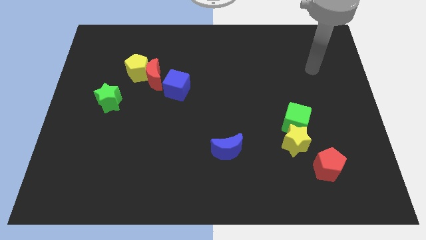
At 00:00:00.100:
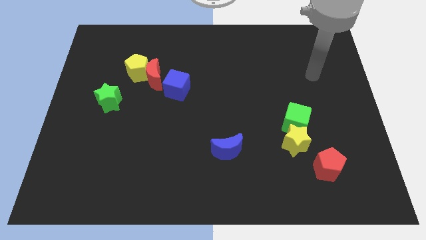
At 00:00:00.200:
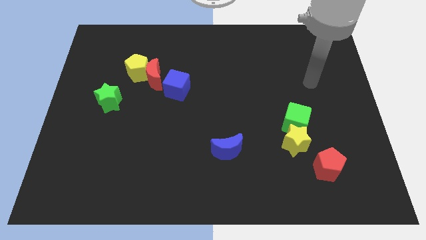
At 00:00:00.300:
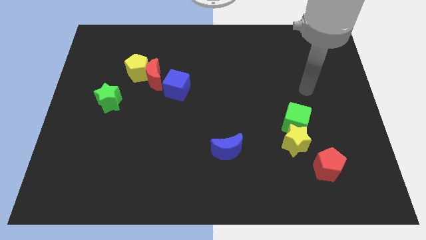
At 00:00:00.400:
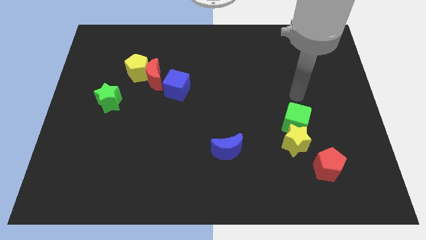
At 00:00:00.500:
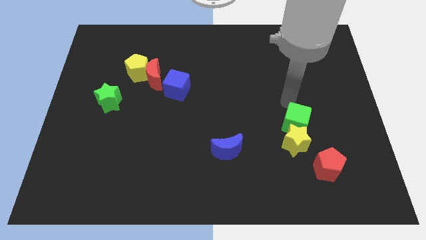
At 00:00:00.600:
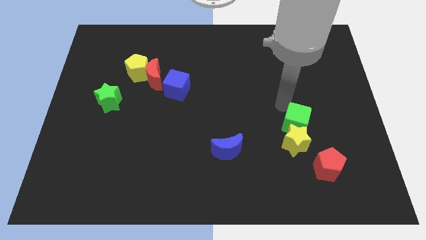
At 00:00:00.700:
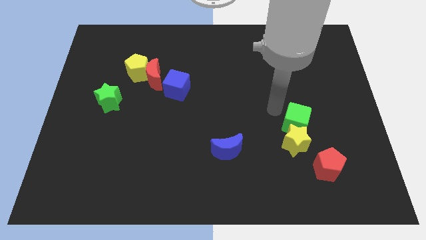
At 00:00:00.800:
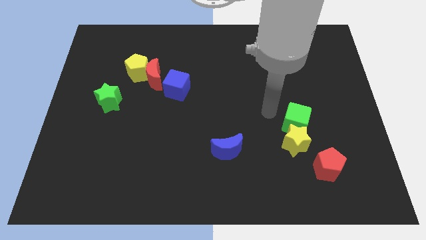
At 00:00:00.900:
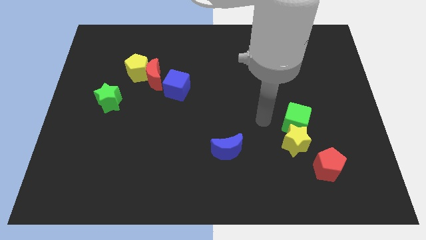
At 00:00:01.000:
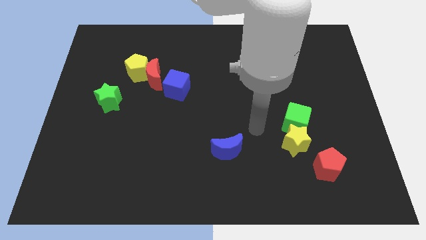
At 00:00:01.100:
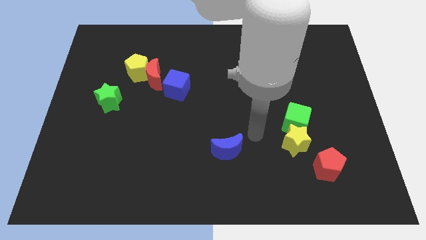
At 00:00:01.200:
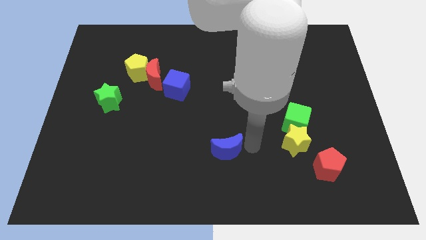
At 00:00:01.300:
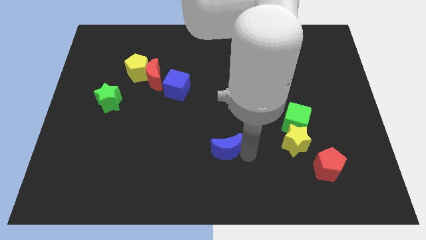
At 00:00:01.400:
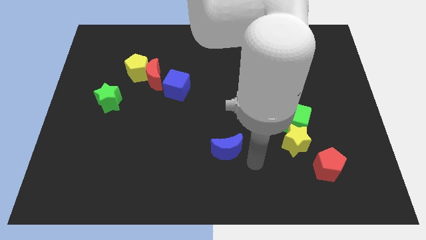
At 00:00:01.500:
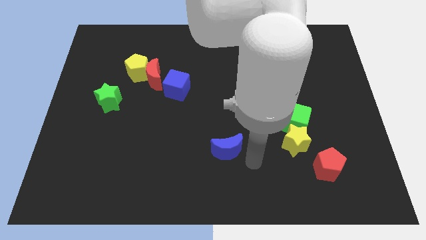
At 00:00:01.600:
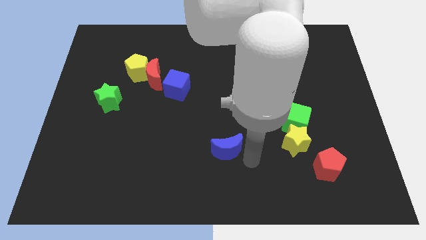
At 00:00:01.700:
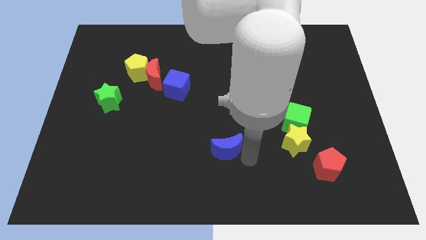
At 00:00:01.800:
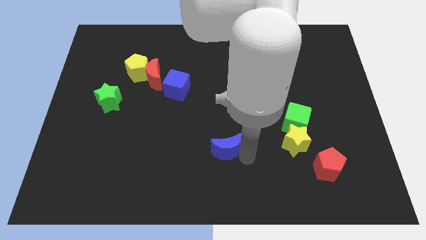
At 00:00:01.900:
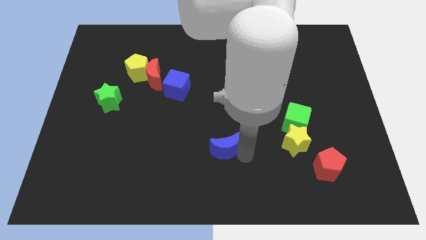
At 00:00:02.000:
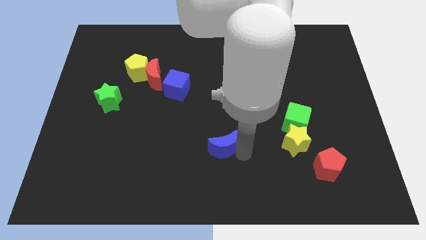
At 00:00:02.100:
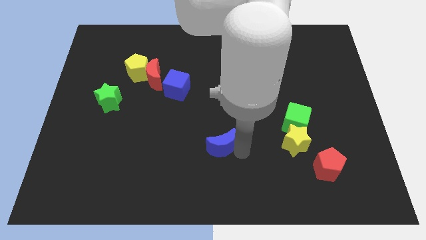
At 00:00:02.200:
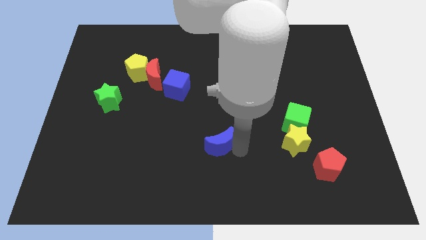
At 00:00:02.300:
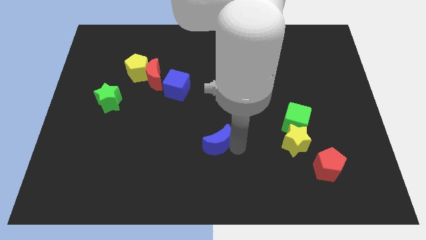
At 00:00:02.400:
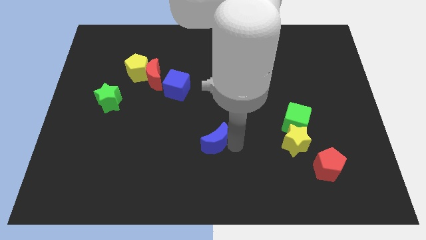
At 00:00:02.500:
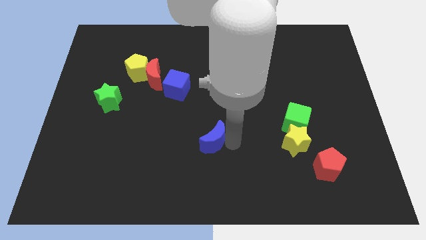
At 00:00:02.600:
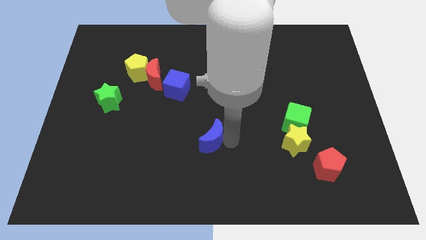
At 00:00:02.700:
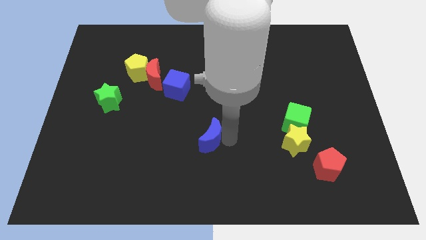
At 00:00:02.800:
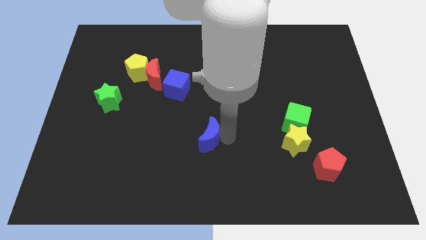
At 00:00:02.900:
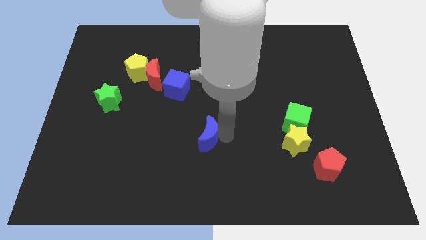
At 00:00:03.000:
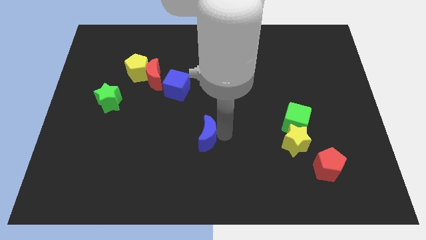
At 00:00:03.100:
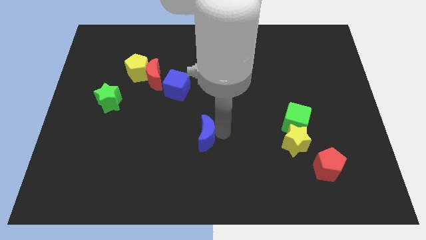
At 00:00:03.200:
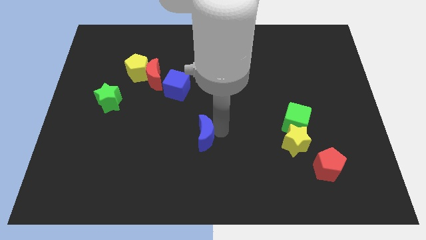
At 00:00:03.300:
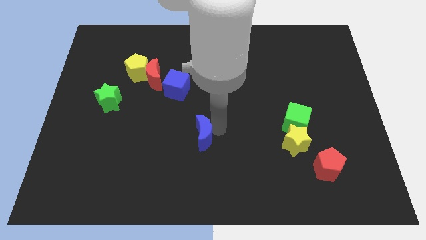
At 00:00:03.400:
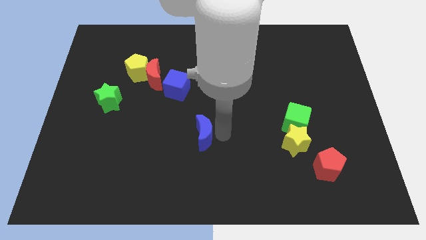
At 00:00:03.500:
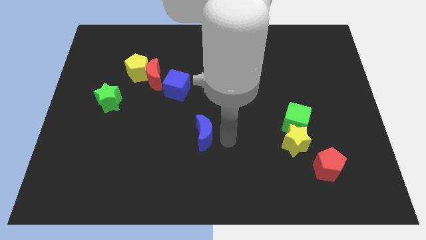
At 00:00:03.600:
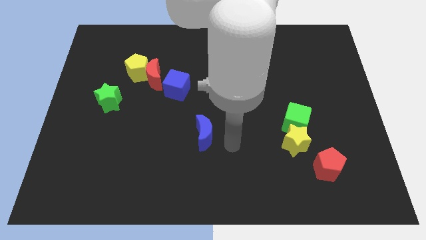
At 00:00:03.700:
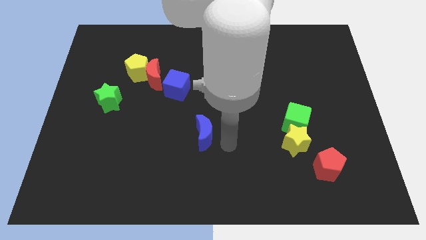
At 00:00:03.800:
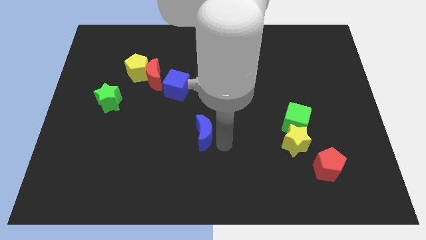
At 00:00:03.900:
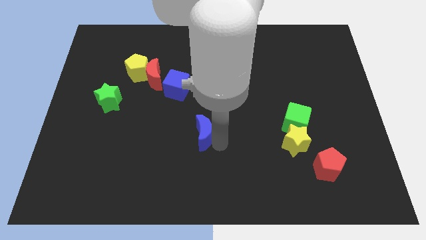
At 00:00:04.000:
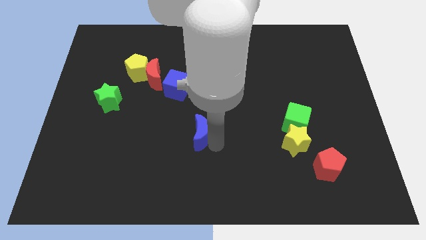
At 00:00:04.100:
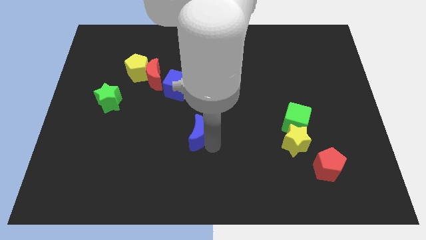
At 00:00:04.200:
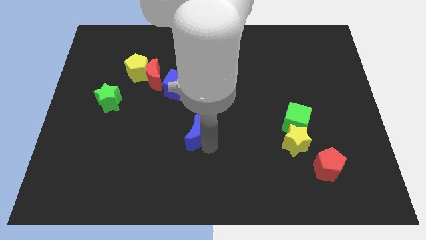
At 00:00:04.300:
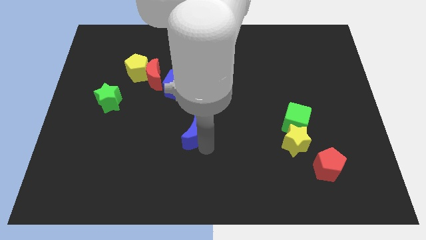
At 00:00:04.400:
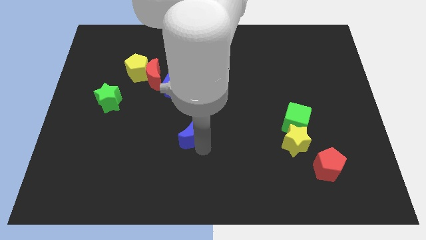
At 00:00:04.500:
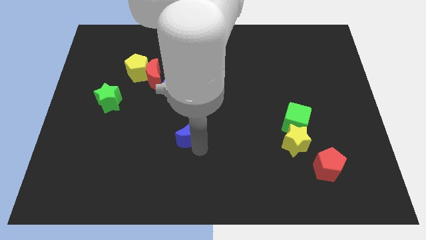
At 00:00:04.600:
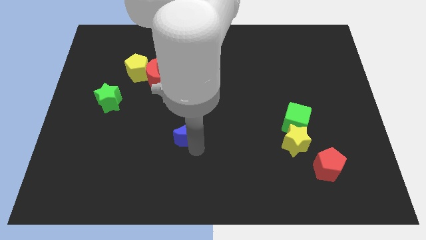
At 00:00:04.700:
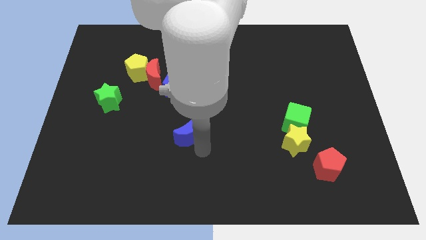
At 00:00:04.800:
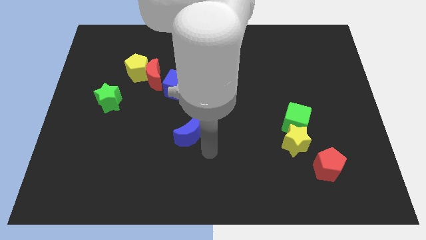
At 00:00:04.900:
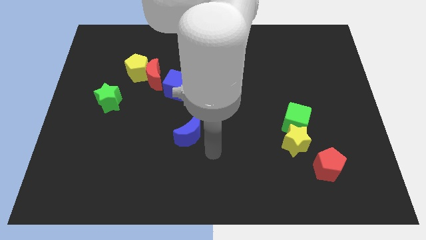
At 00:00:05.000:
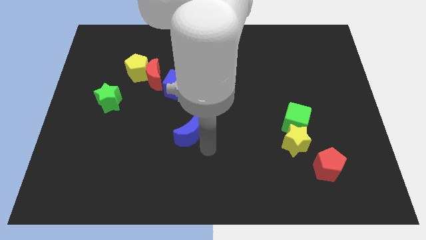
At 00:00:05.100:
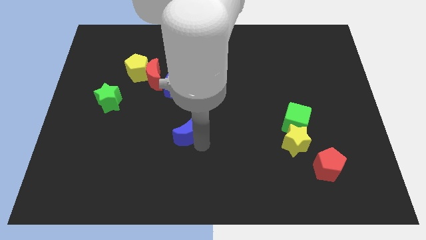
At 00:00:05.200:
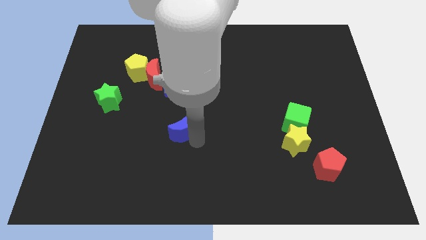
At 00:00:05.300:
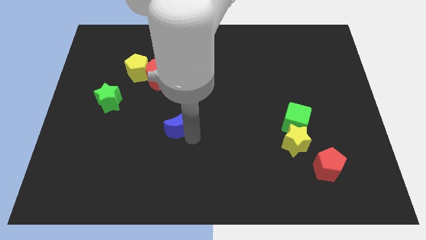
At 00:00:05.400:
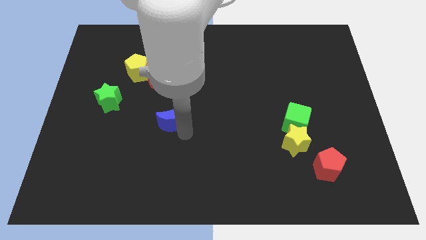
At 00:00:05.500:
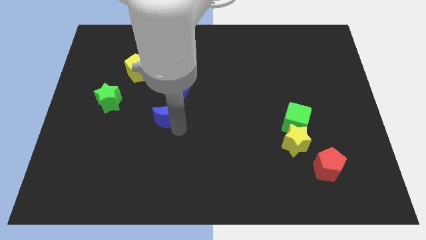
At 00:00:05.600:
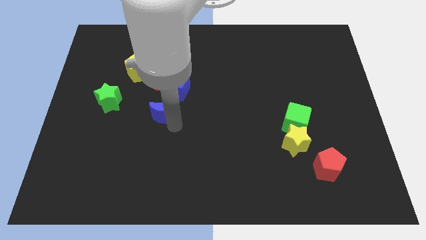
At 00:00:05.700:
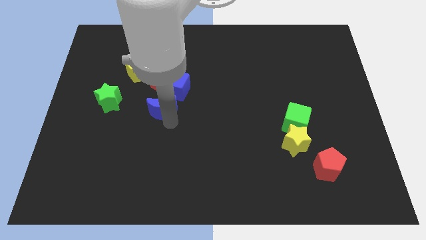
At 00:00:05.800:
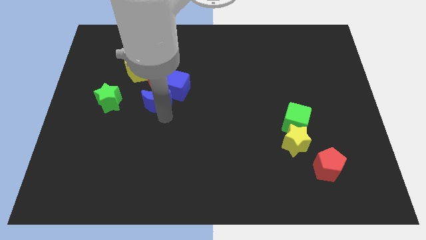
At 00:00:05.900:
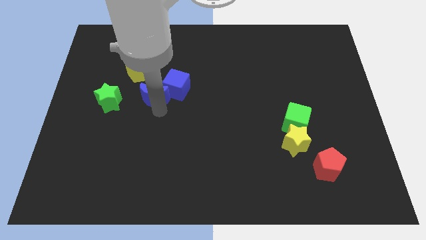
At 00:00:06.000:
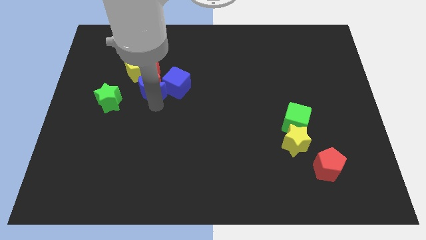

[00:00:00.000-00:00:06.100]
move the blue moon towards the red moon

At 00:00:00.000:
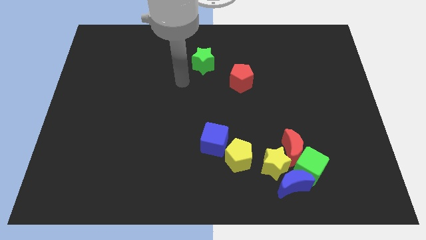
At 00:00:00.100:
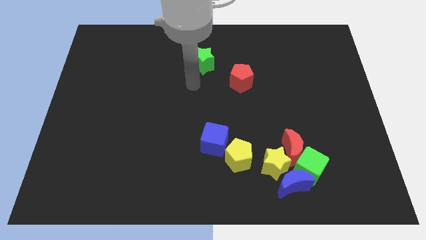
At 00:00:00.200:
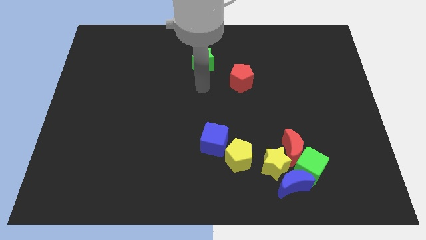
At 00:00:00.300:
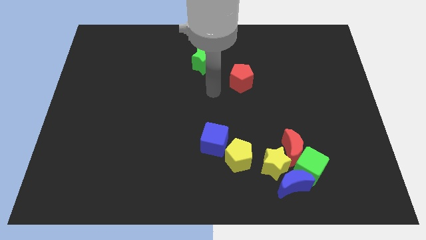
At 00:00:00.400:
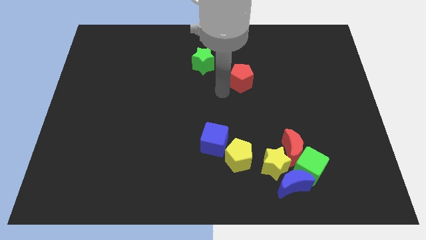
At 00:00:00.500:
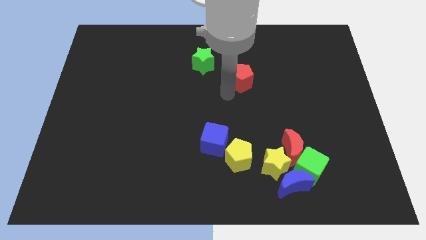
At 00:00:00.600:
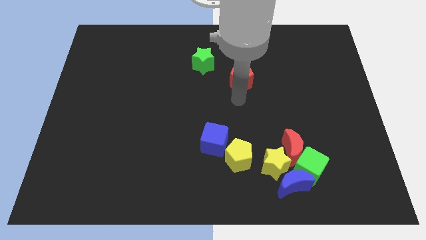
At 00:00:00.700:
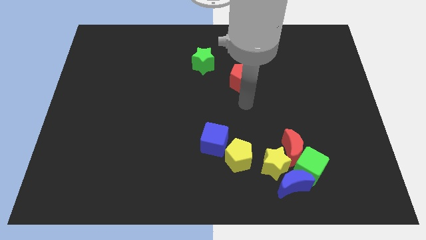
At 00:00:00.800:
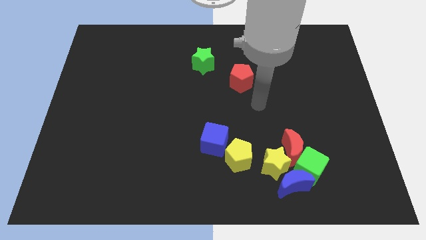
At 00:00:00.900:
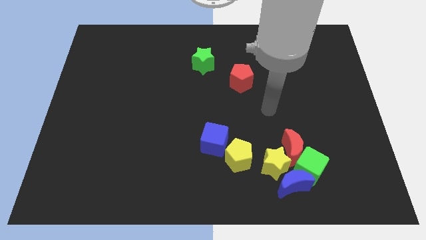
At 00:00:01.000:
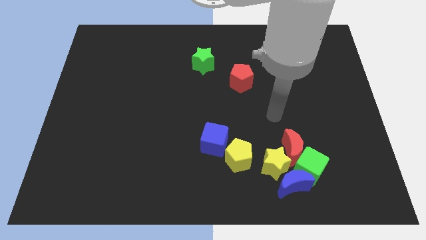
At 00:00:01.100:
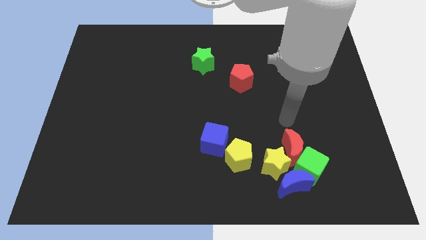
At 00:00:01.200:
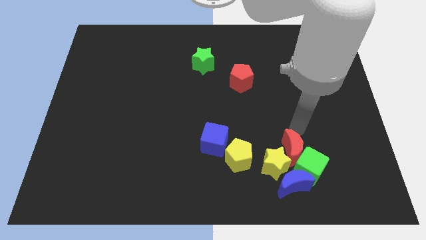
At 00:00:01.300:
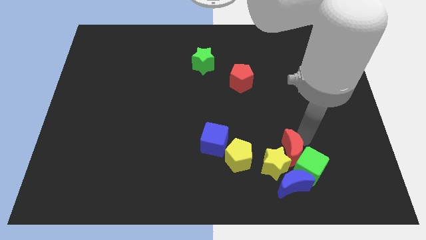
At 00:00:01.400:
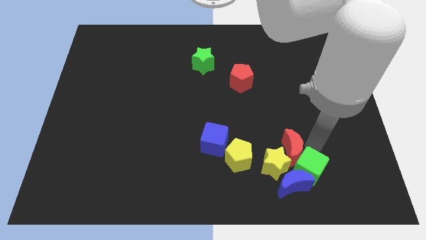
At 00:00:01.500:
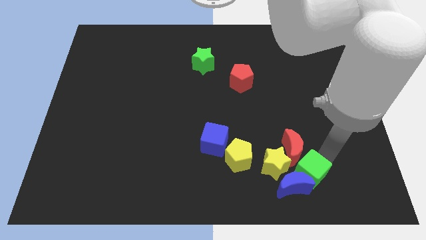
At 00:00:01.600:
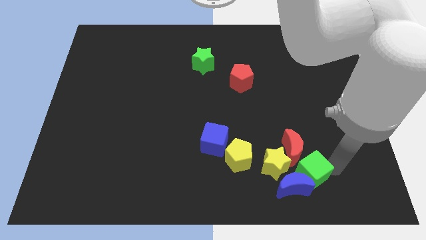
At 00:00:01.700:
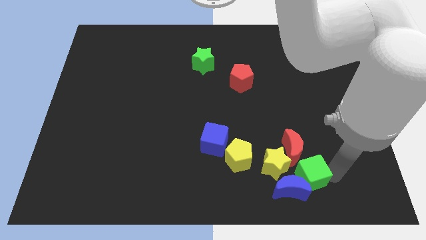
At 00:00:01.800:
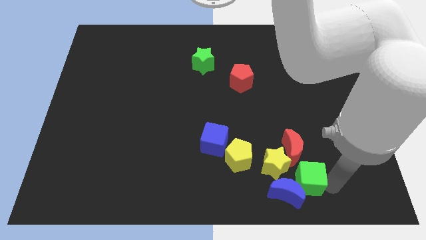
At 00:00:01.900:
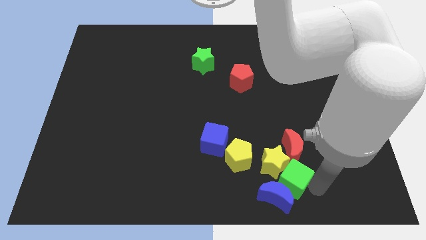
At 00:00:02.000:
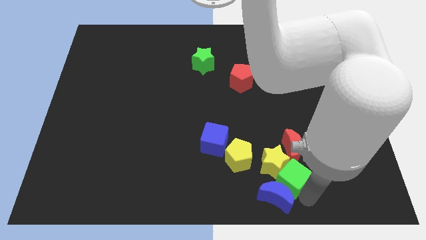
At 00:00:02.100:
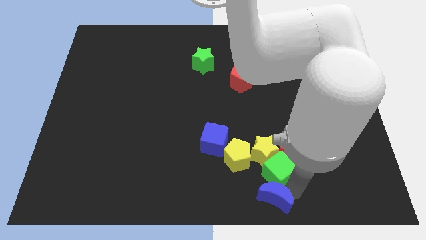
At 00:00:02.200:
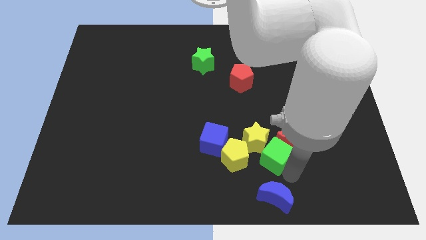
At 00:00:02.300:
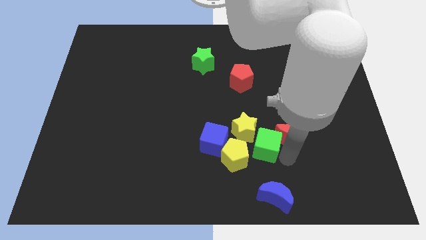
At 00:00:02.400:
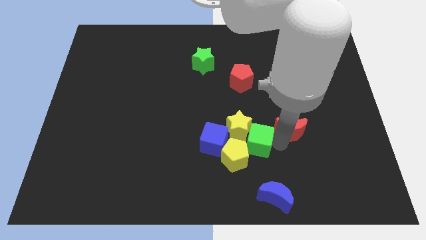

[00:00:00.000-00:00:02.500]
slide the yellow star to the blue cube
